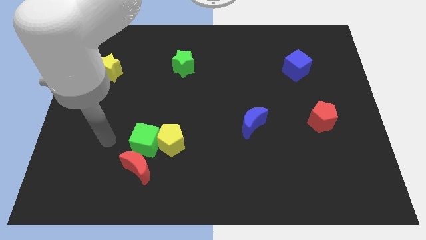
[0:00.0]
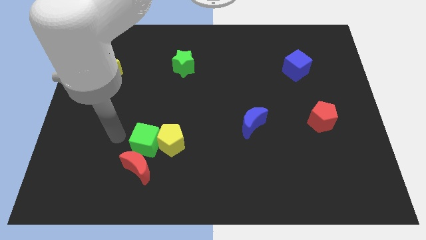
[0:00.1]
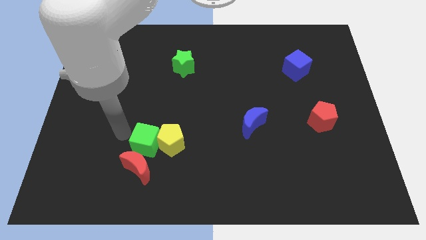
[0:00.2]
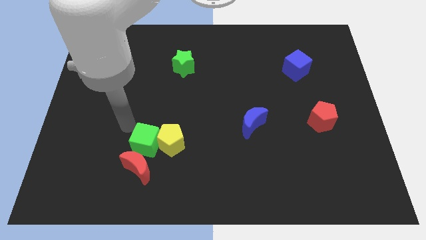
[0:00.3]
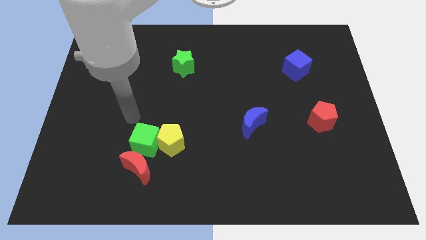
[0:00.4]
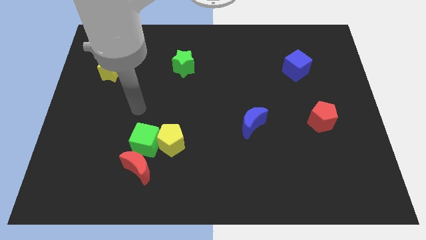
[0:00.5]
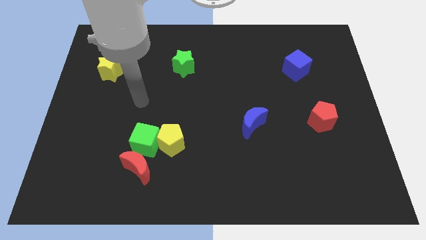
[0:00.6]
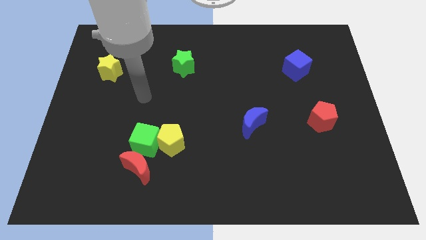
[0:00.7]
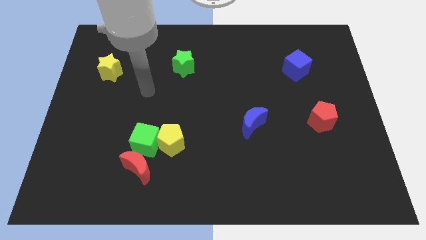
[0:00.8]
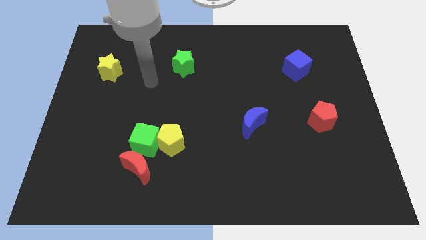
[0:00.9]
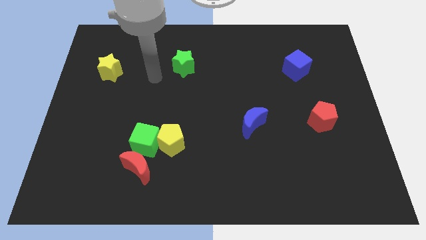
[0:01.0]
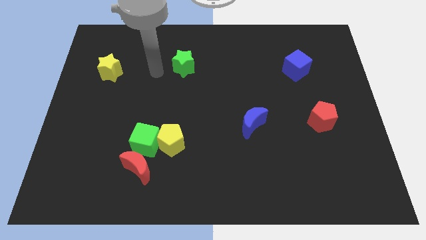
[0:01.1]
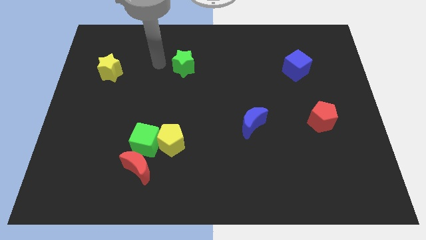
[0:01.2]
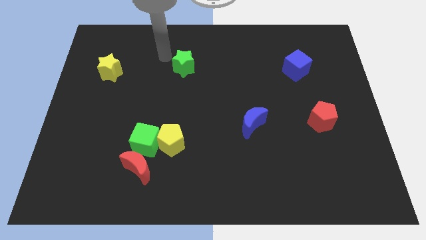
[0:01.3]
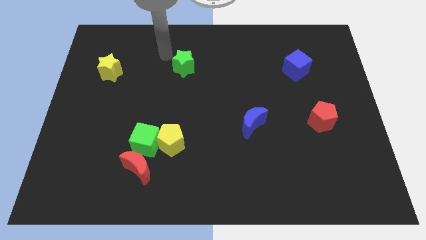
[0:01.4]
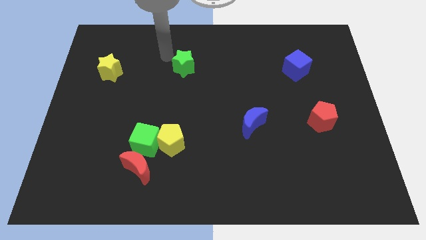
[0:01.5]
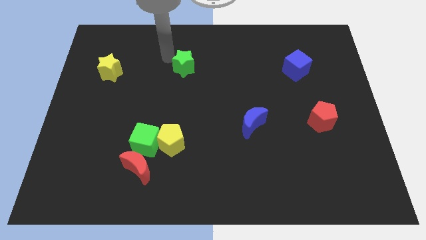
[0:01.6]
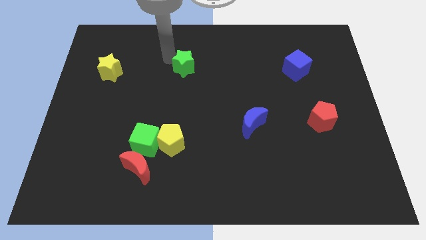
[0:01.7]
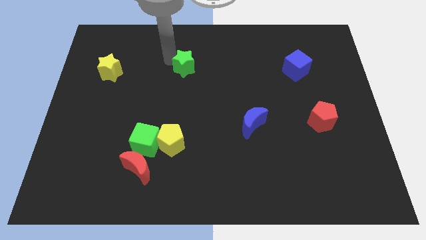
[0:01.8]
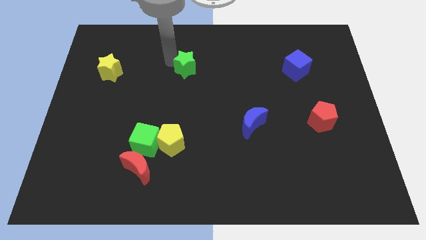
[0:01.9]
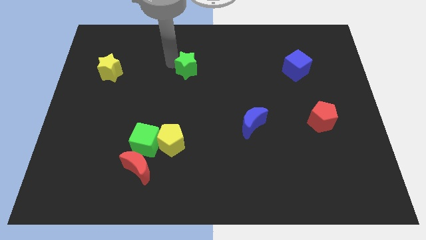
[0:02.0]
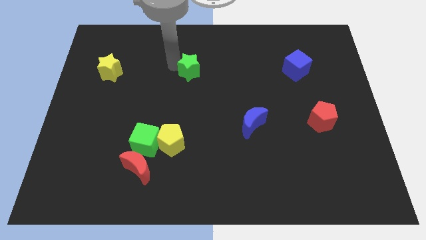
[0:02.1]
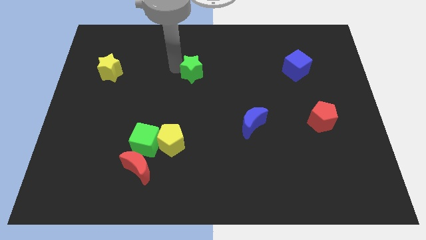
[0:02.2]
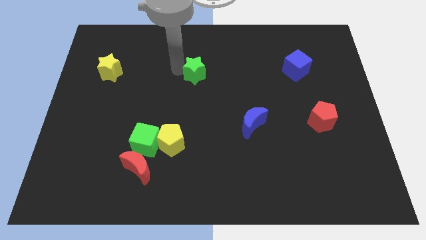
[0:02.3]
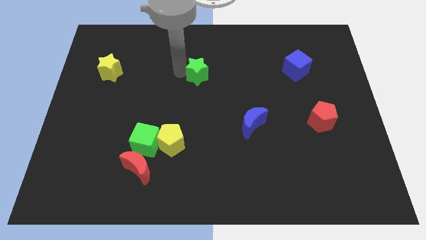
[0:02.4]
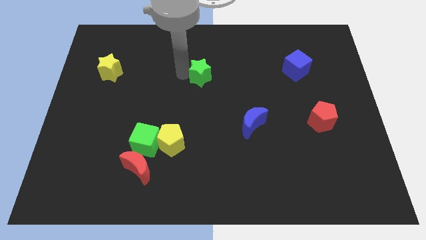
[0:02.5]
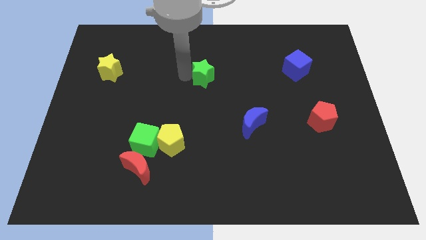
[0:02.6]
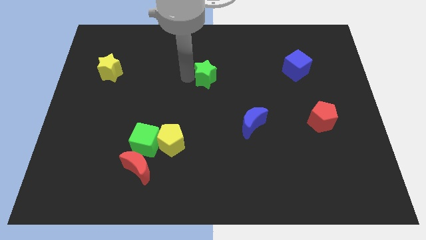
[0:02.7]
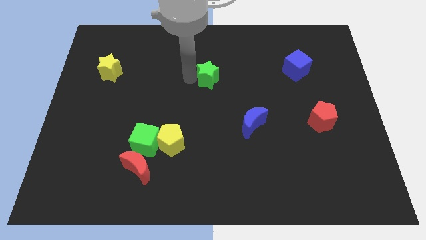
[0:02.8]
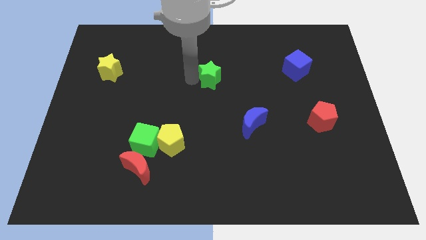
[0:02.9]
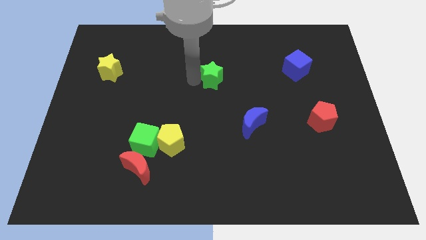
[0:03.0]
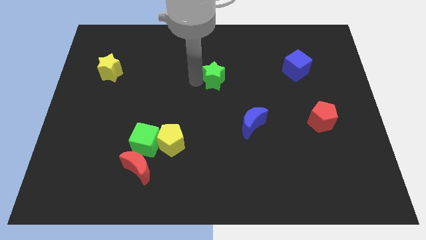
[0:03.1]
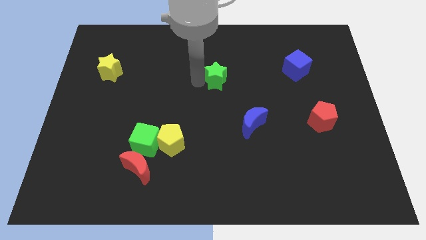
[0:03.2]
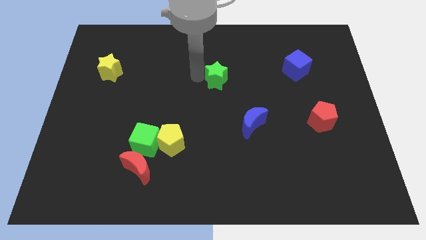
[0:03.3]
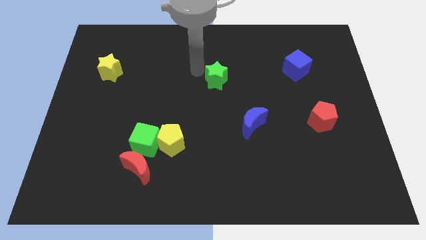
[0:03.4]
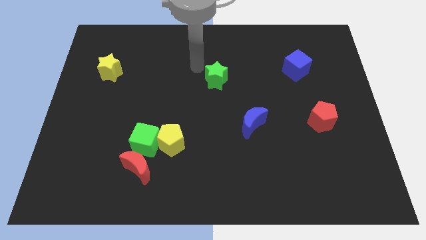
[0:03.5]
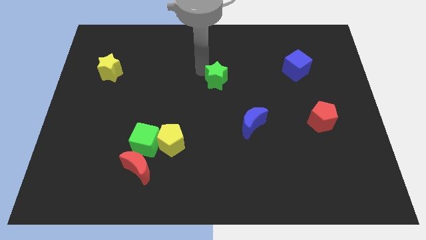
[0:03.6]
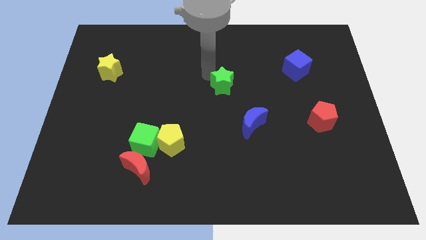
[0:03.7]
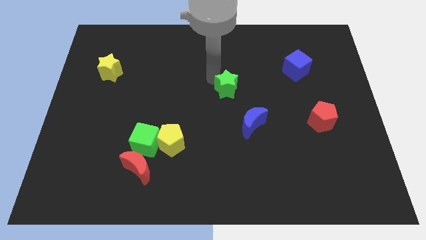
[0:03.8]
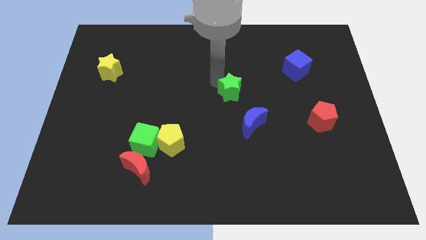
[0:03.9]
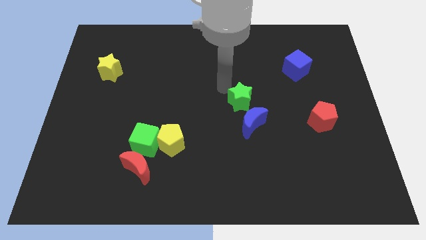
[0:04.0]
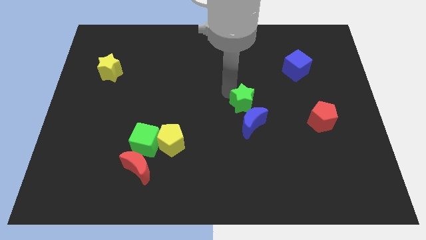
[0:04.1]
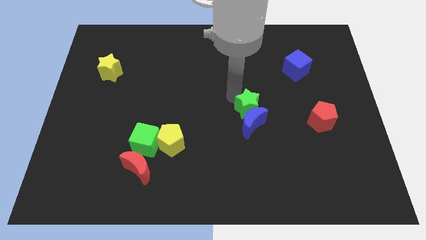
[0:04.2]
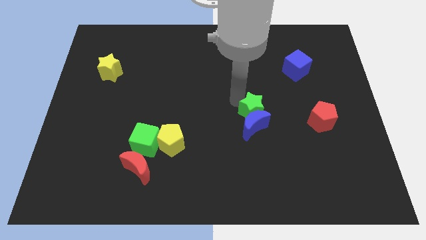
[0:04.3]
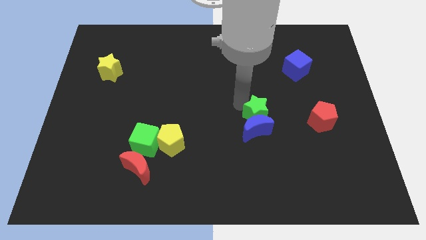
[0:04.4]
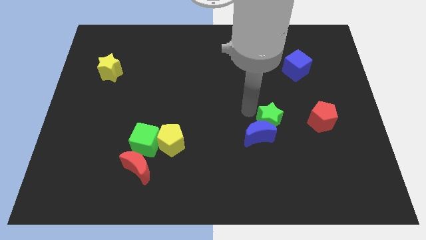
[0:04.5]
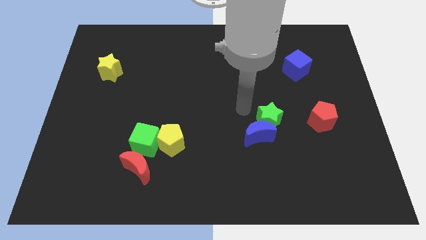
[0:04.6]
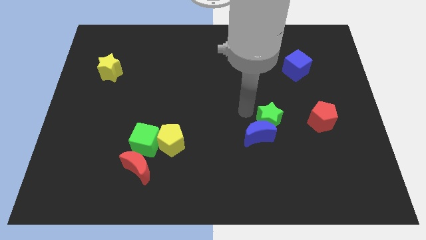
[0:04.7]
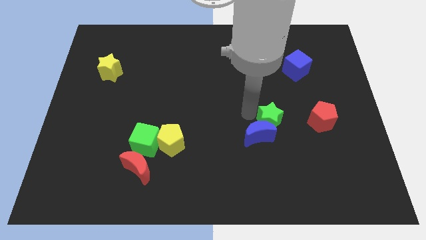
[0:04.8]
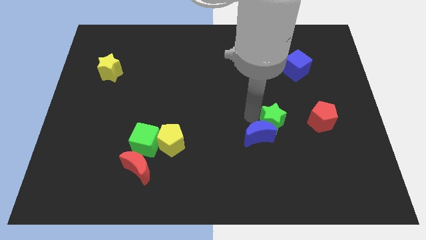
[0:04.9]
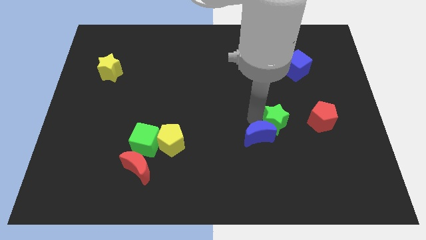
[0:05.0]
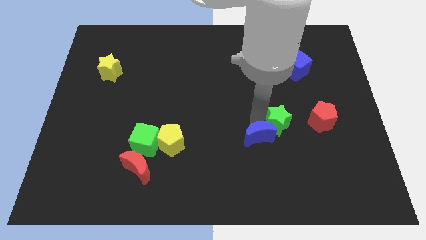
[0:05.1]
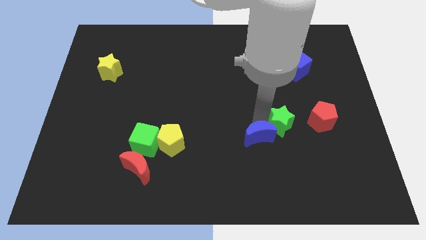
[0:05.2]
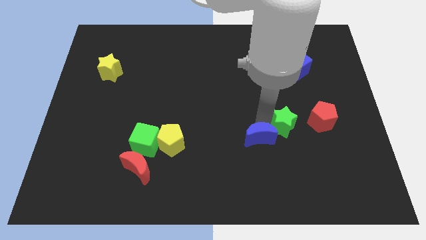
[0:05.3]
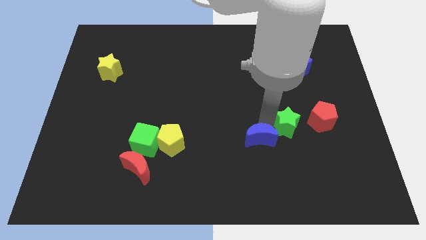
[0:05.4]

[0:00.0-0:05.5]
move the green star to the bottom left of the red pentagon

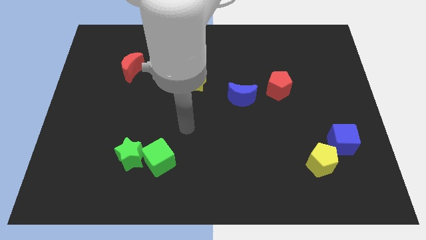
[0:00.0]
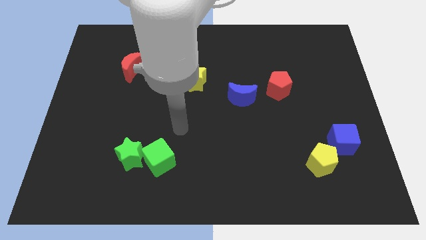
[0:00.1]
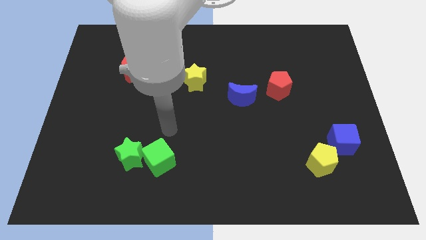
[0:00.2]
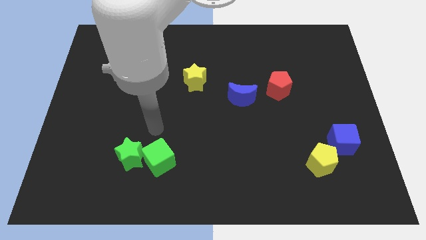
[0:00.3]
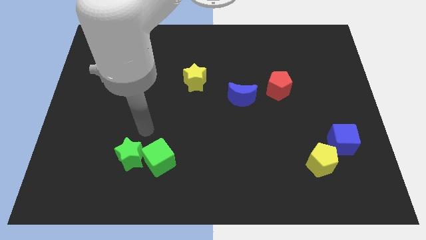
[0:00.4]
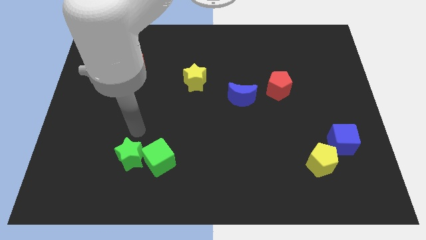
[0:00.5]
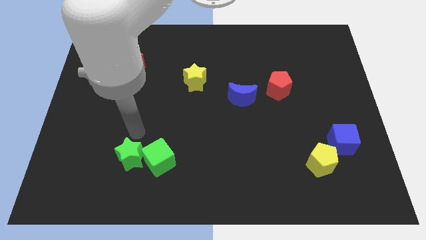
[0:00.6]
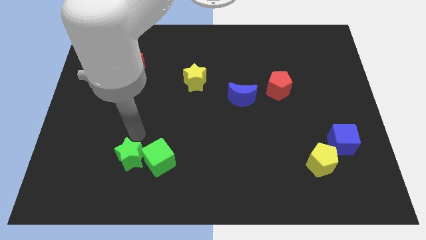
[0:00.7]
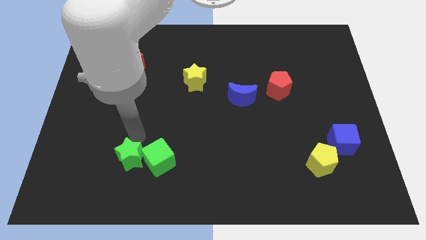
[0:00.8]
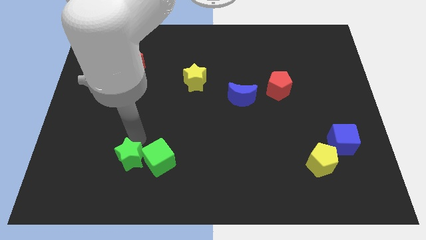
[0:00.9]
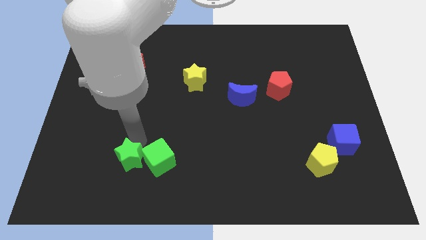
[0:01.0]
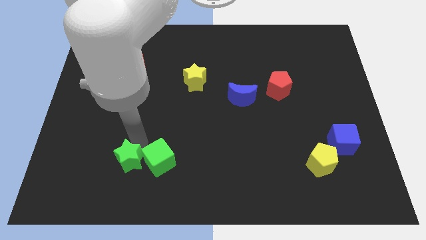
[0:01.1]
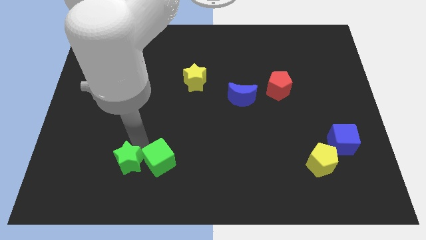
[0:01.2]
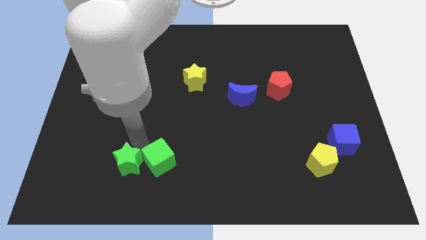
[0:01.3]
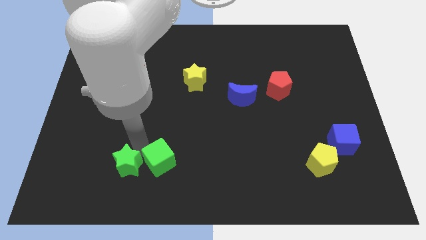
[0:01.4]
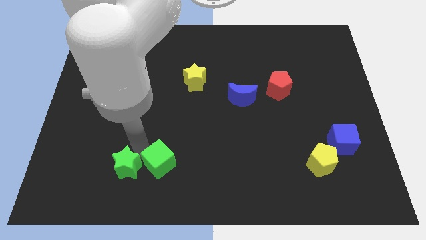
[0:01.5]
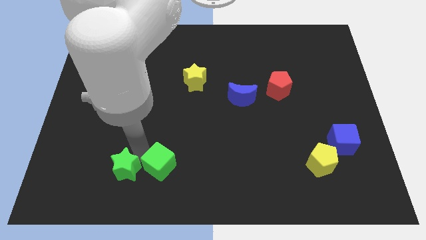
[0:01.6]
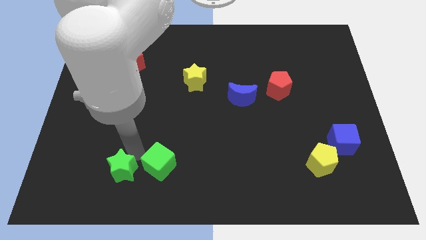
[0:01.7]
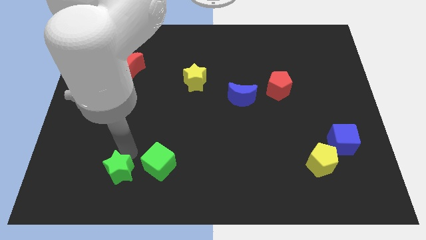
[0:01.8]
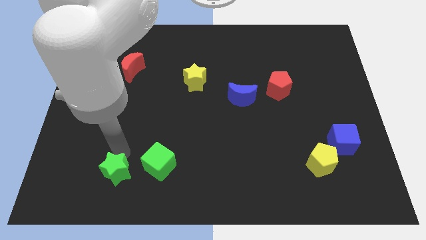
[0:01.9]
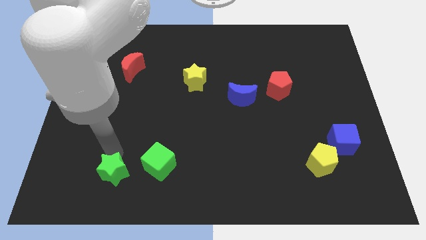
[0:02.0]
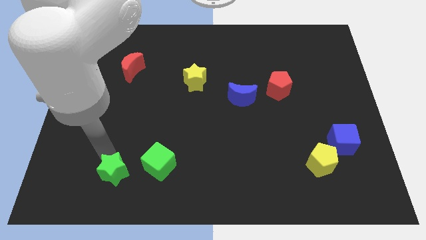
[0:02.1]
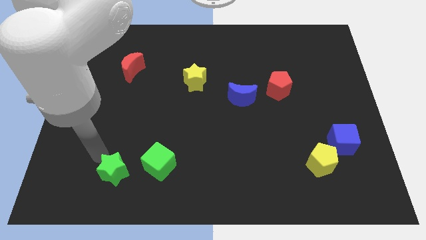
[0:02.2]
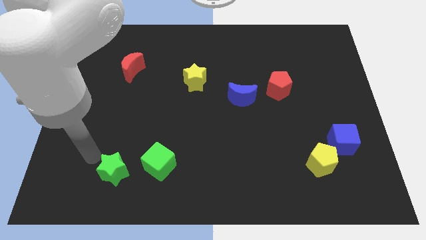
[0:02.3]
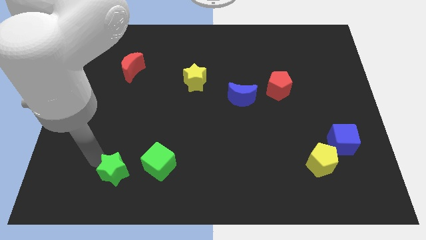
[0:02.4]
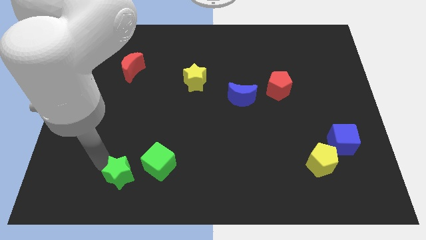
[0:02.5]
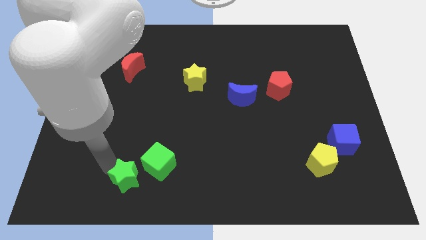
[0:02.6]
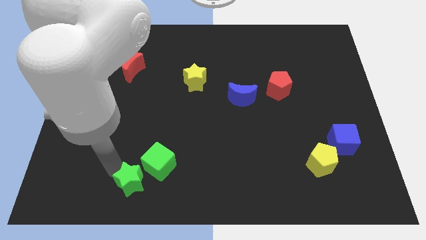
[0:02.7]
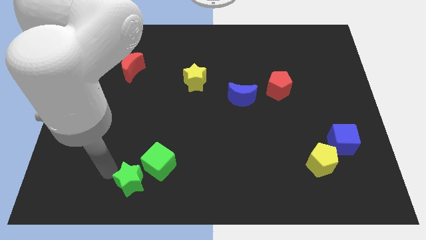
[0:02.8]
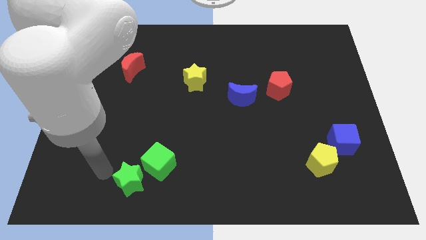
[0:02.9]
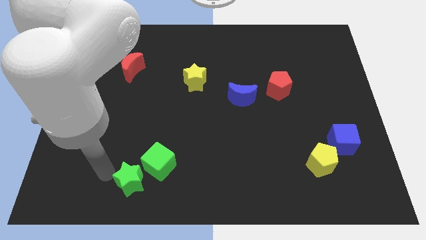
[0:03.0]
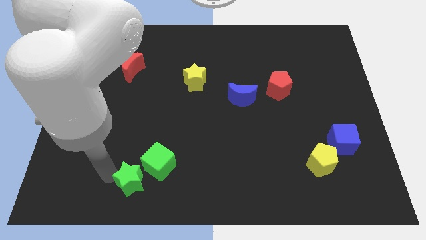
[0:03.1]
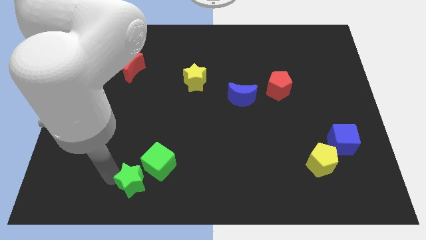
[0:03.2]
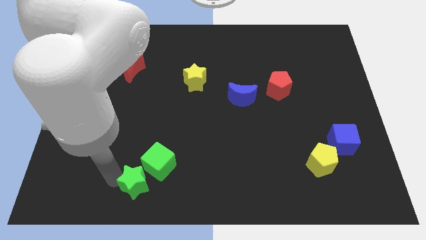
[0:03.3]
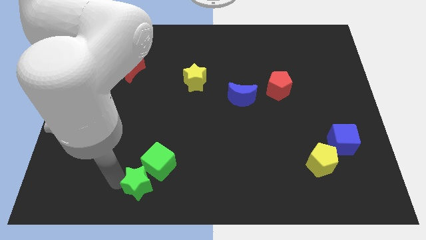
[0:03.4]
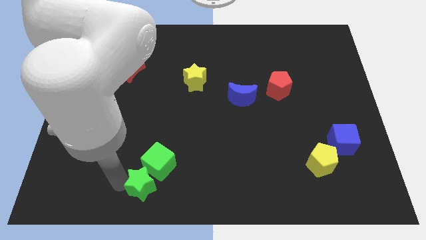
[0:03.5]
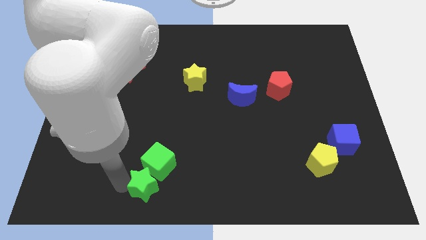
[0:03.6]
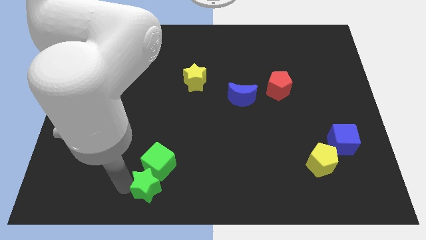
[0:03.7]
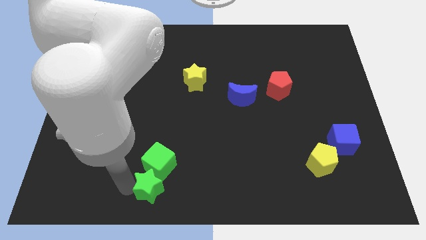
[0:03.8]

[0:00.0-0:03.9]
put the green star to the bottom right side of the green cube
